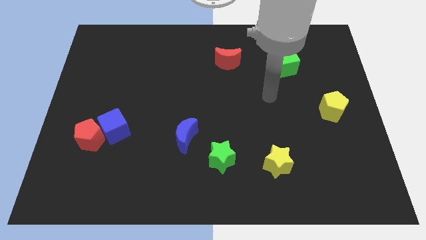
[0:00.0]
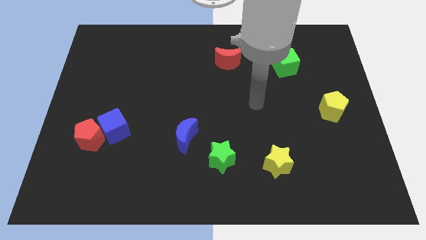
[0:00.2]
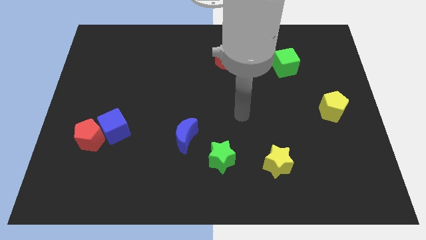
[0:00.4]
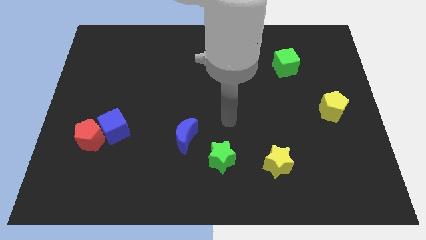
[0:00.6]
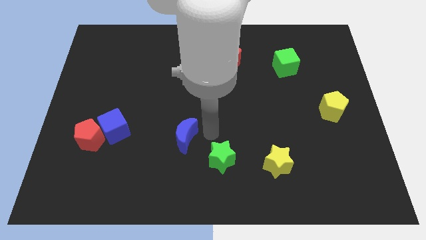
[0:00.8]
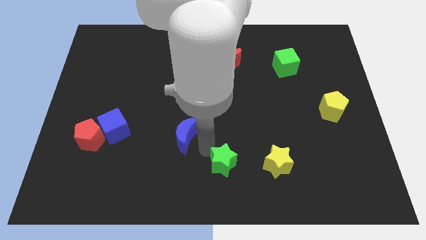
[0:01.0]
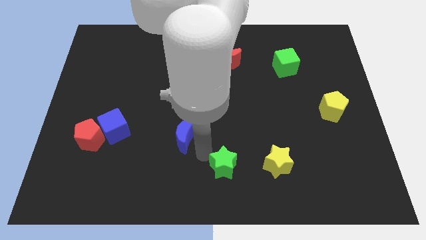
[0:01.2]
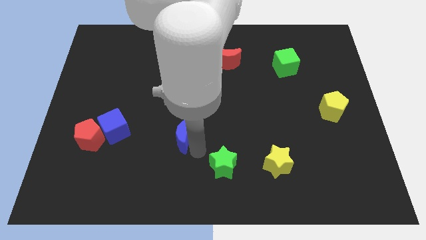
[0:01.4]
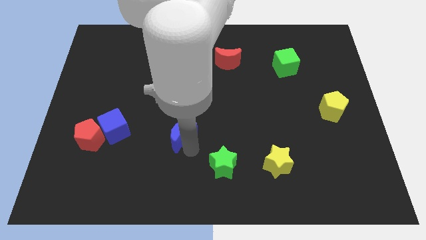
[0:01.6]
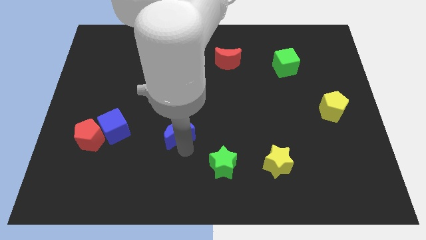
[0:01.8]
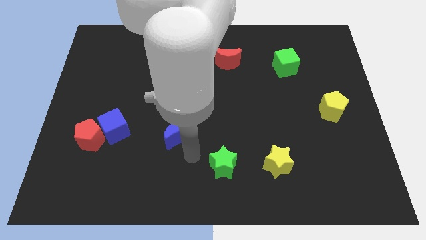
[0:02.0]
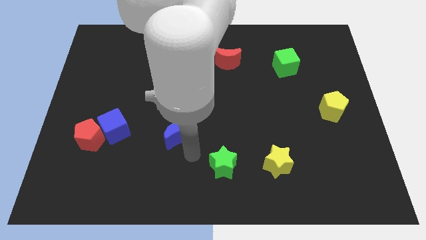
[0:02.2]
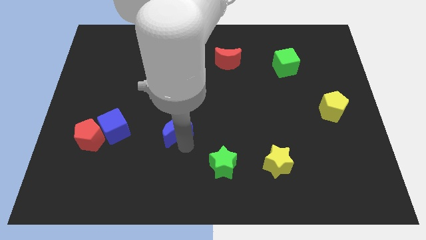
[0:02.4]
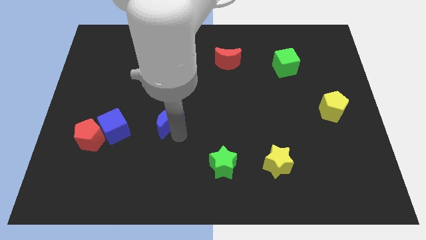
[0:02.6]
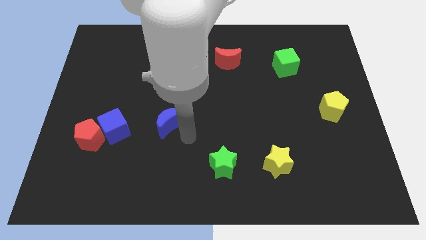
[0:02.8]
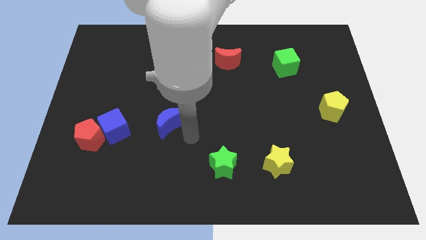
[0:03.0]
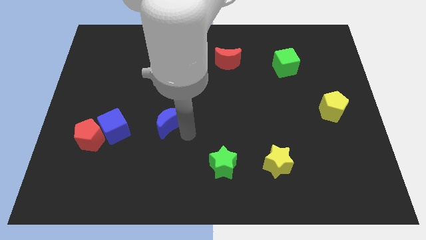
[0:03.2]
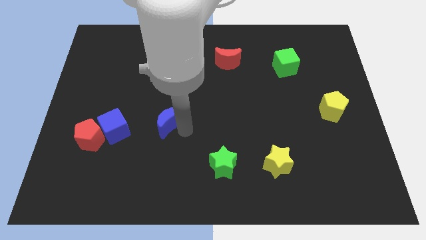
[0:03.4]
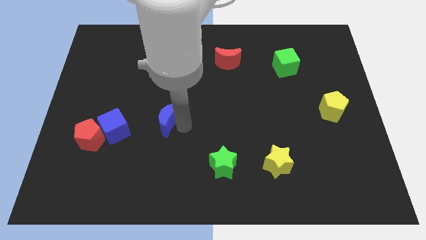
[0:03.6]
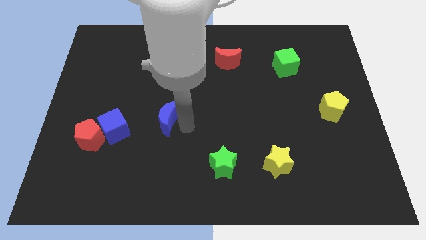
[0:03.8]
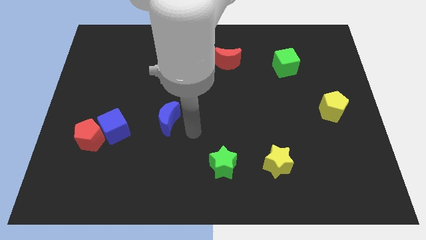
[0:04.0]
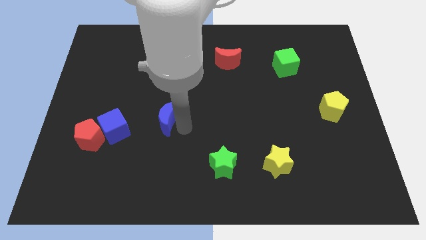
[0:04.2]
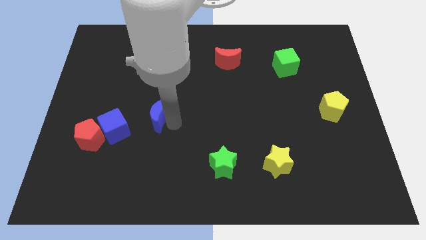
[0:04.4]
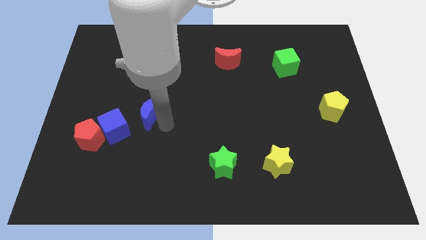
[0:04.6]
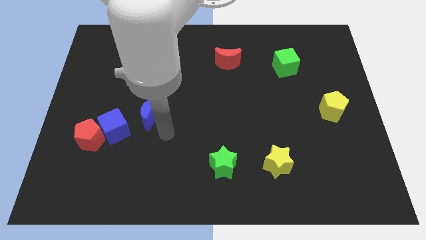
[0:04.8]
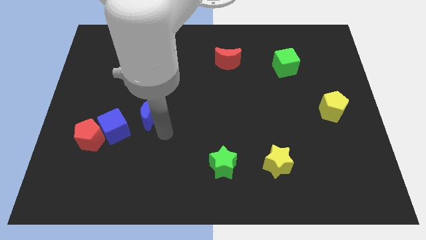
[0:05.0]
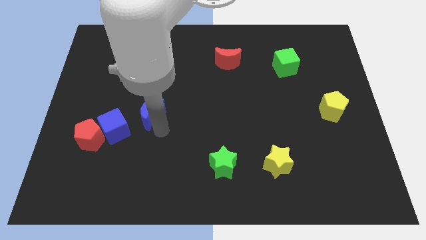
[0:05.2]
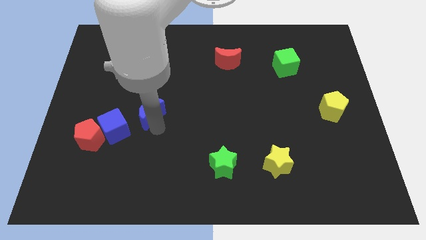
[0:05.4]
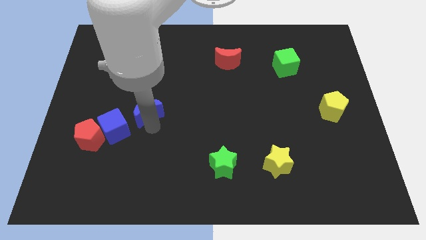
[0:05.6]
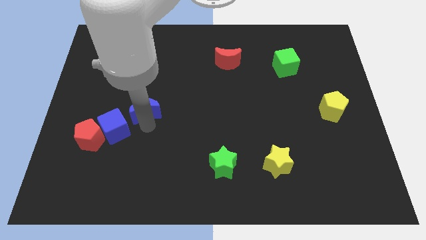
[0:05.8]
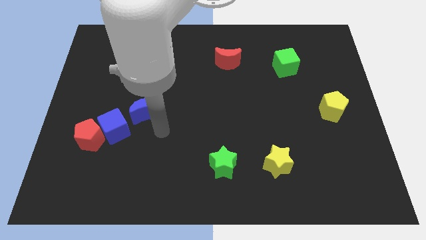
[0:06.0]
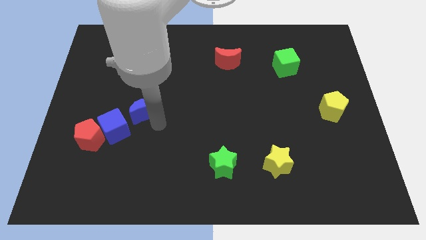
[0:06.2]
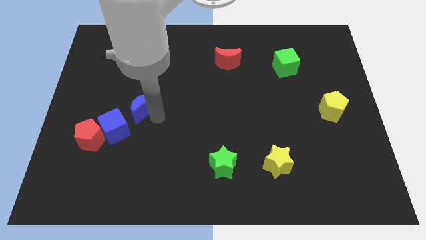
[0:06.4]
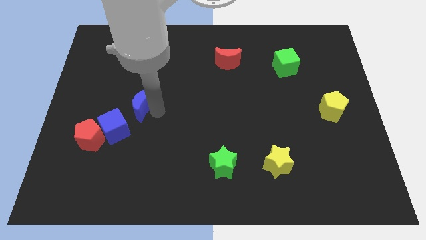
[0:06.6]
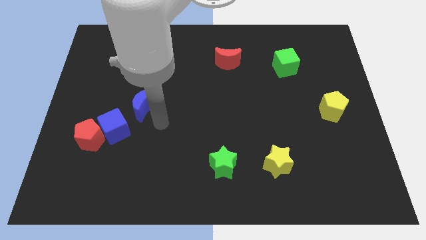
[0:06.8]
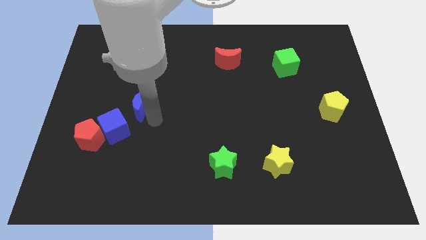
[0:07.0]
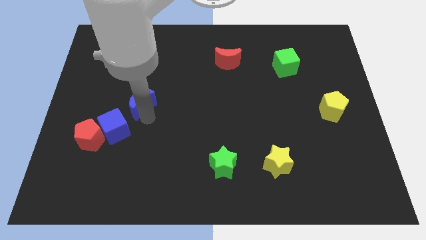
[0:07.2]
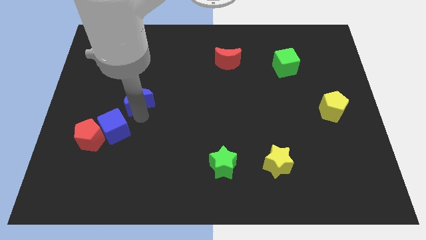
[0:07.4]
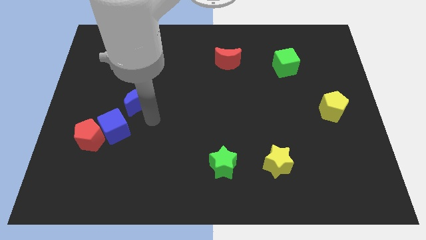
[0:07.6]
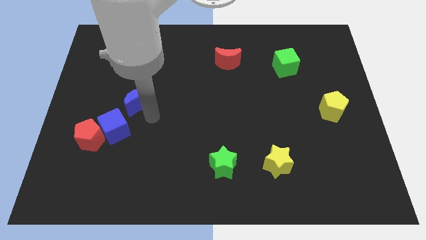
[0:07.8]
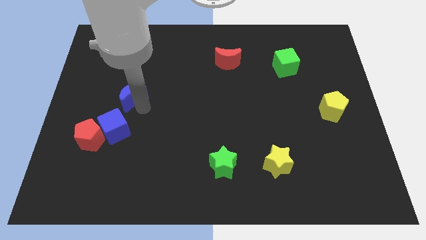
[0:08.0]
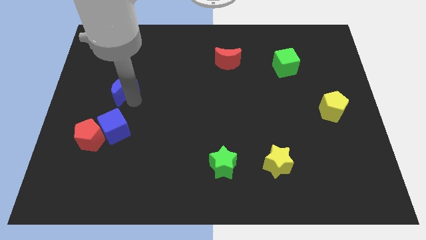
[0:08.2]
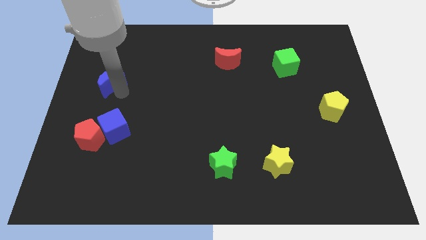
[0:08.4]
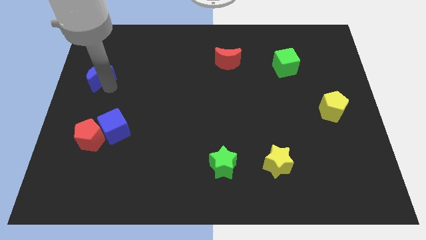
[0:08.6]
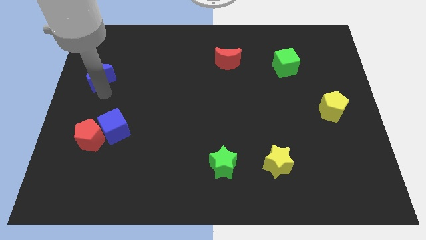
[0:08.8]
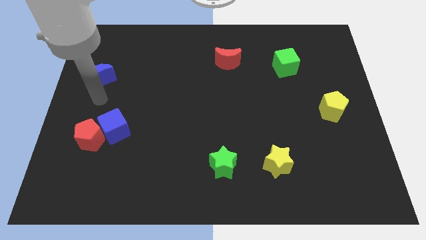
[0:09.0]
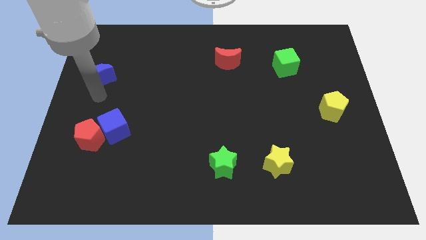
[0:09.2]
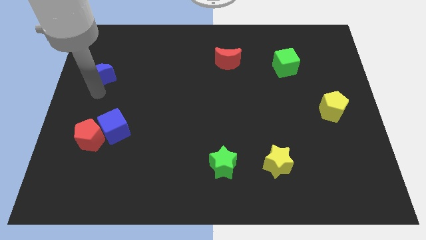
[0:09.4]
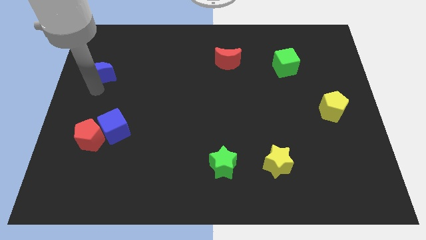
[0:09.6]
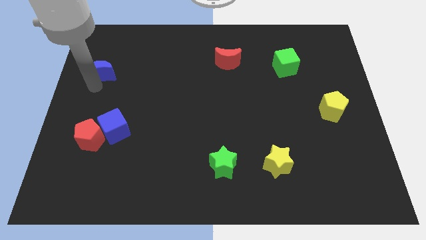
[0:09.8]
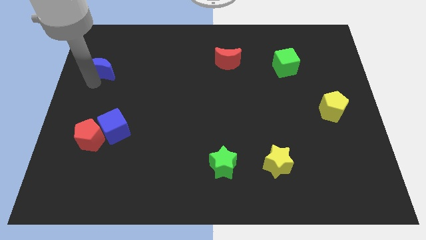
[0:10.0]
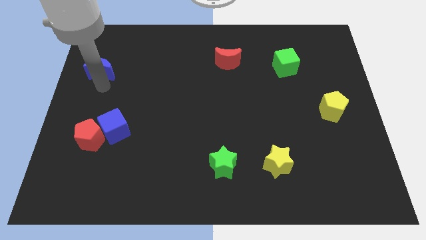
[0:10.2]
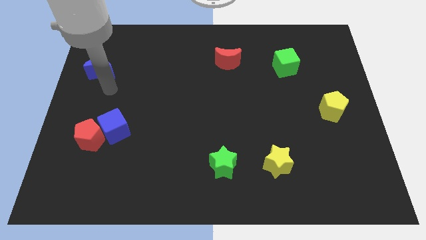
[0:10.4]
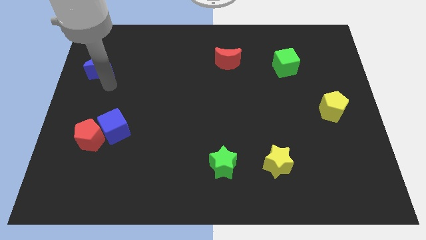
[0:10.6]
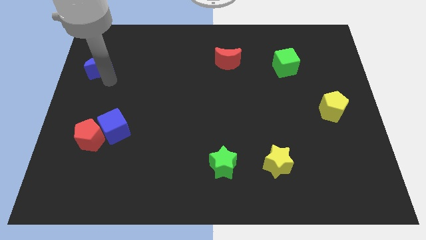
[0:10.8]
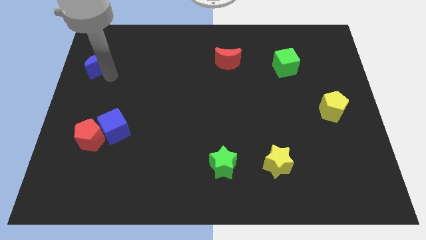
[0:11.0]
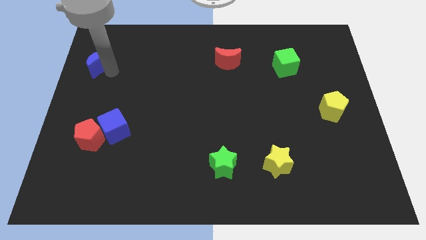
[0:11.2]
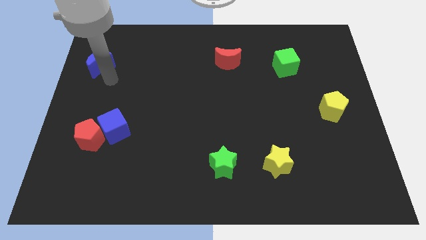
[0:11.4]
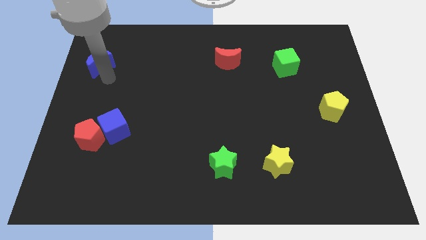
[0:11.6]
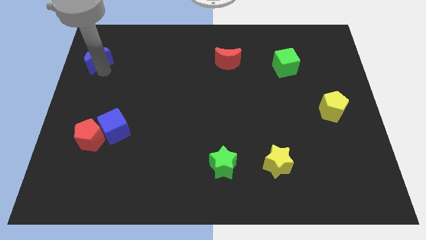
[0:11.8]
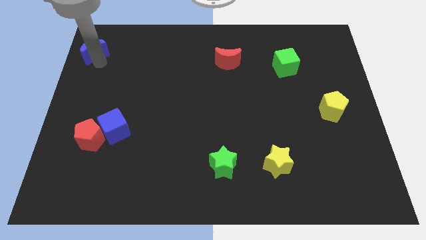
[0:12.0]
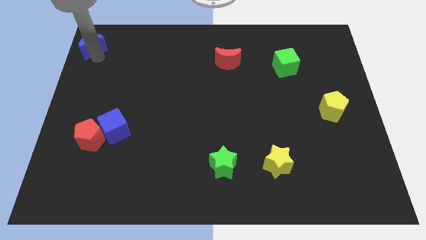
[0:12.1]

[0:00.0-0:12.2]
slide the blue moon to the top left of the board

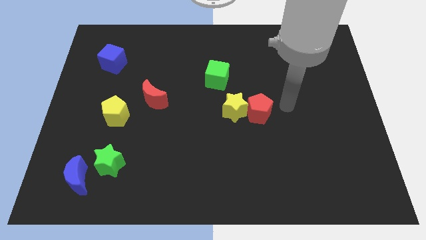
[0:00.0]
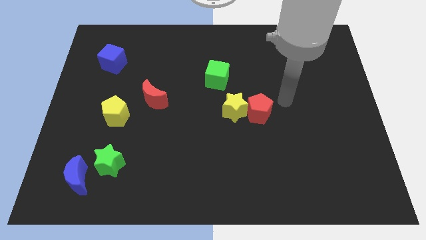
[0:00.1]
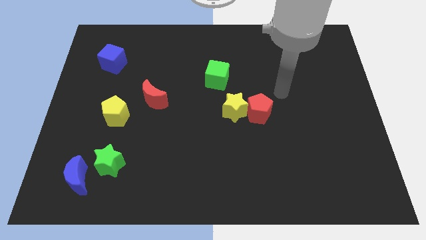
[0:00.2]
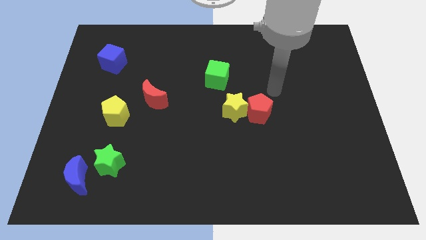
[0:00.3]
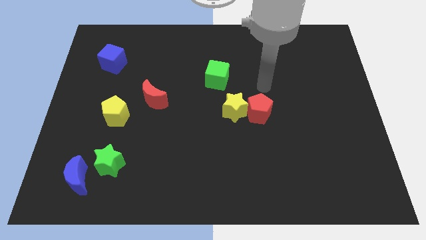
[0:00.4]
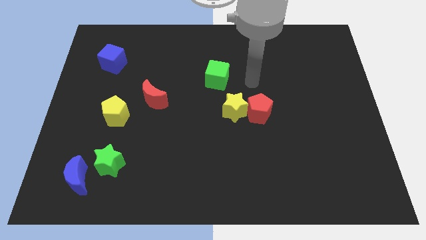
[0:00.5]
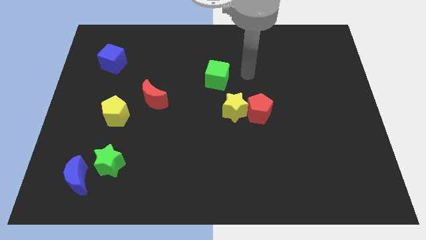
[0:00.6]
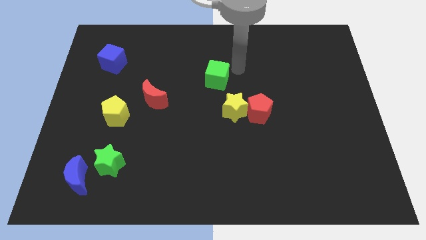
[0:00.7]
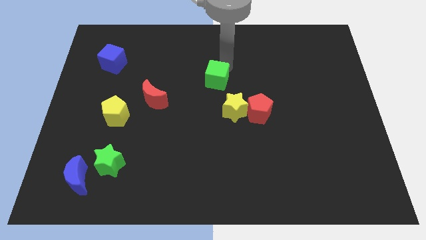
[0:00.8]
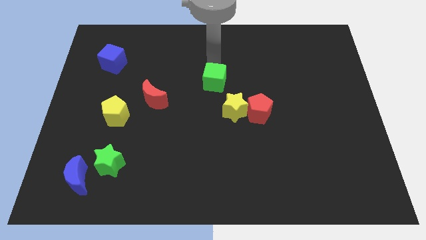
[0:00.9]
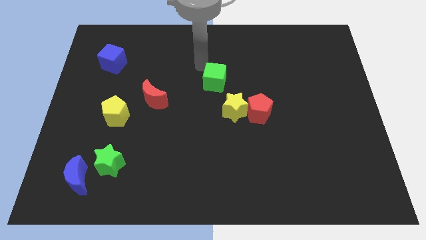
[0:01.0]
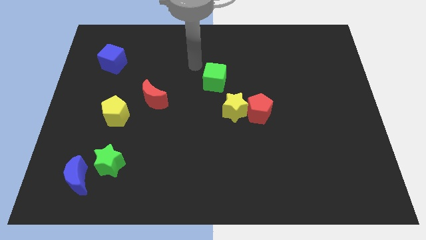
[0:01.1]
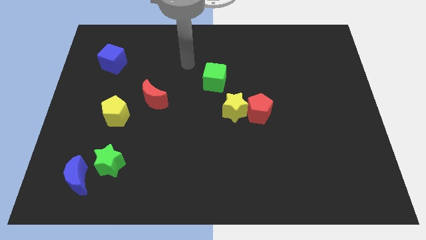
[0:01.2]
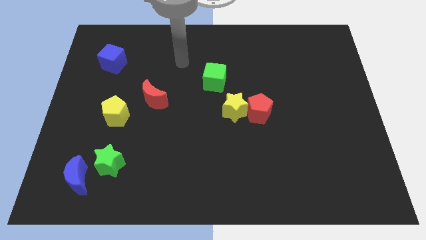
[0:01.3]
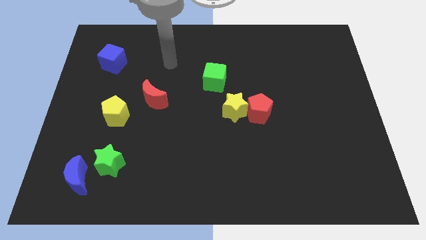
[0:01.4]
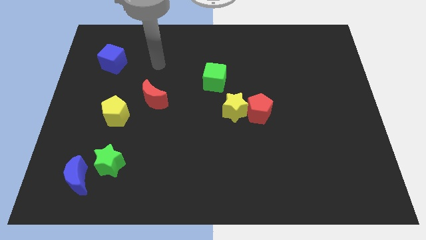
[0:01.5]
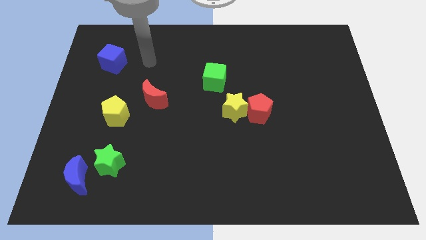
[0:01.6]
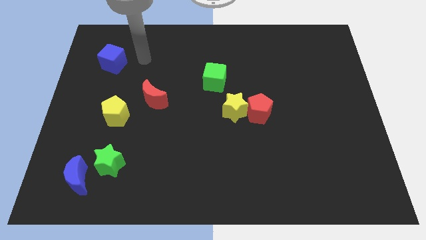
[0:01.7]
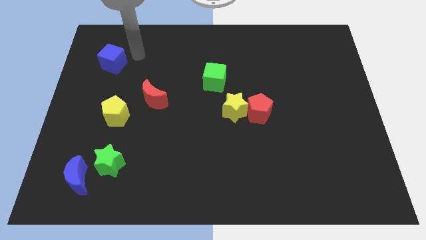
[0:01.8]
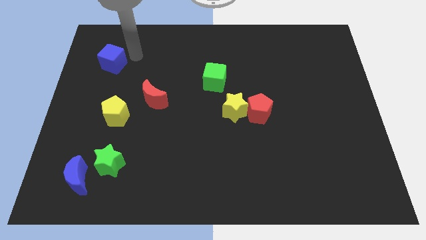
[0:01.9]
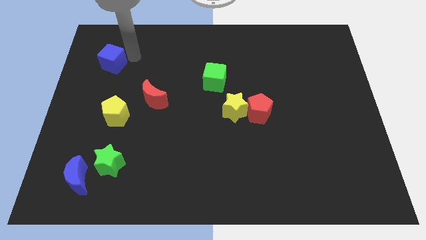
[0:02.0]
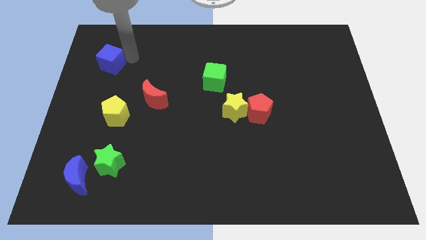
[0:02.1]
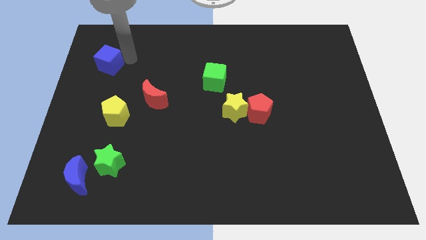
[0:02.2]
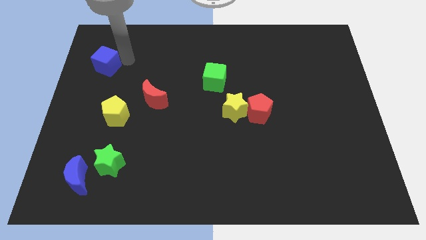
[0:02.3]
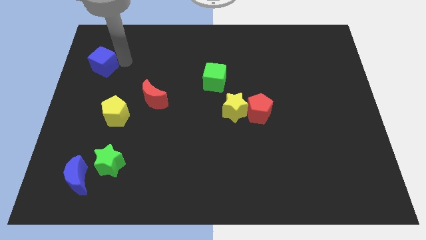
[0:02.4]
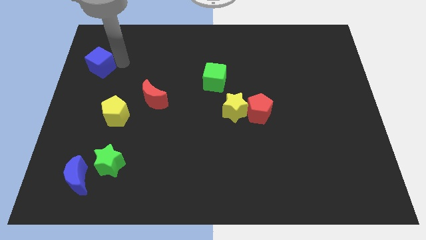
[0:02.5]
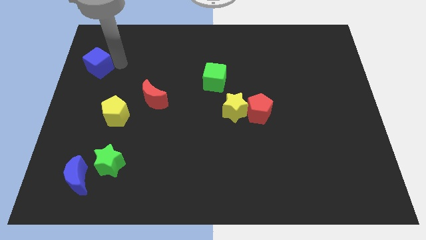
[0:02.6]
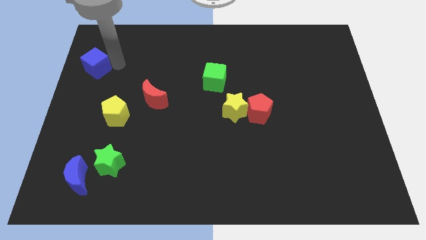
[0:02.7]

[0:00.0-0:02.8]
put the blue cube to the center left

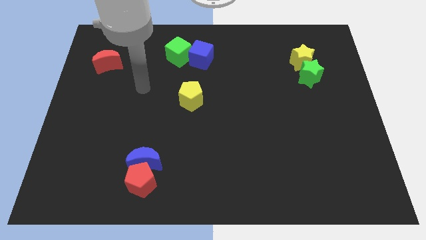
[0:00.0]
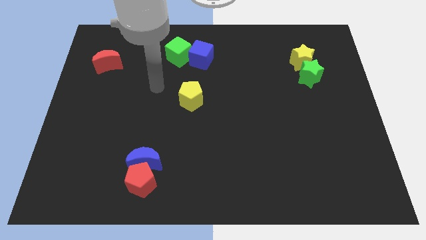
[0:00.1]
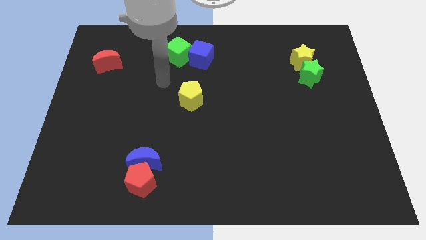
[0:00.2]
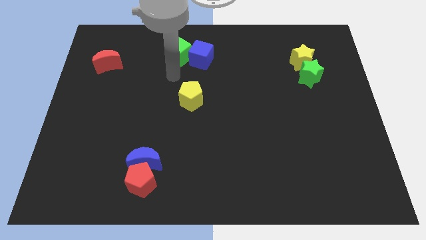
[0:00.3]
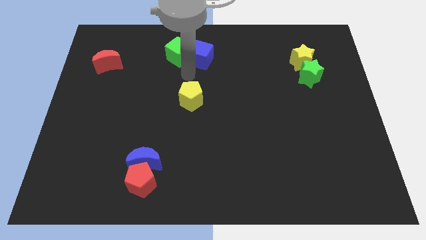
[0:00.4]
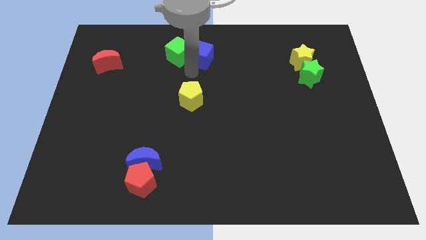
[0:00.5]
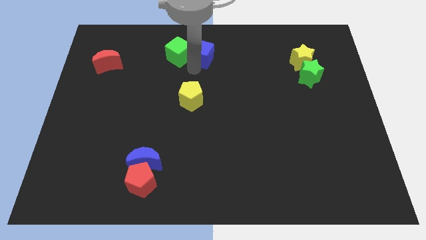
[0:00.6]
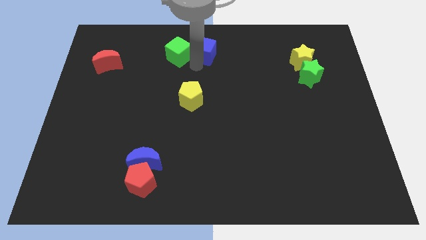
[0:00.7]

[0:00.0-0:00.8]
push the blue cube to the top side
